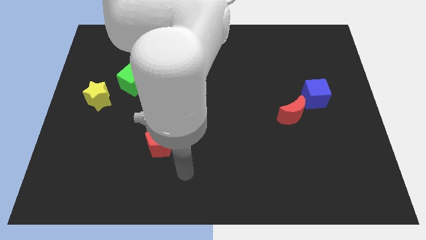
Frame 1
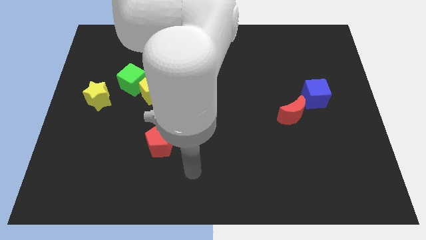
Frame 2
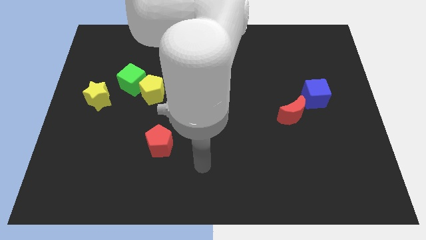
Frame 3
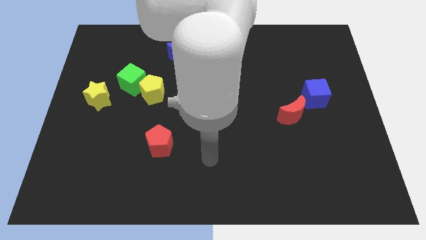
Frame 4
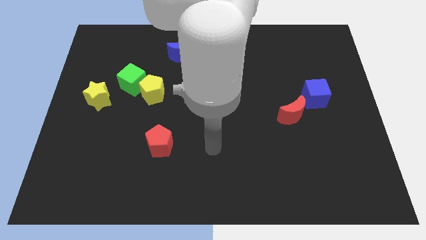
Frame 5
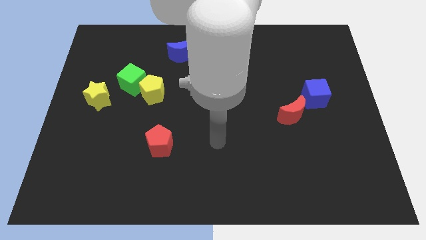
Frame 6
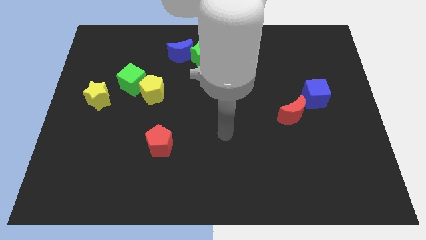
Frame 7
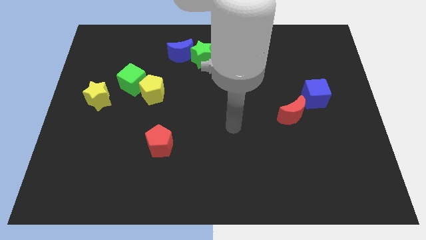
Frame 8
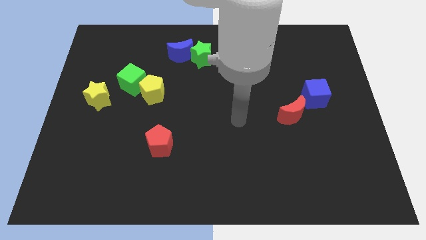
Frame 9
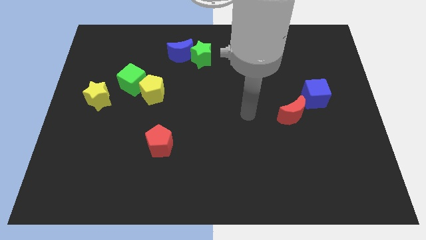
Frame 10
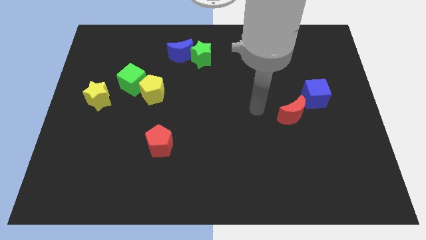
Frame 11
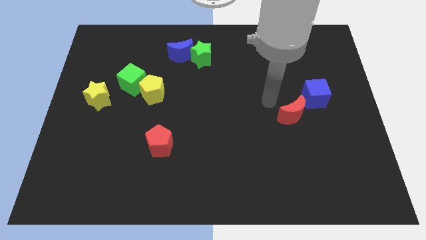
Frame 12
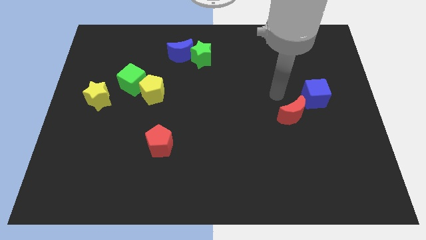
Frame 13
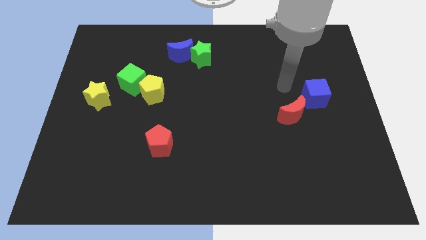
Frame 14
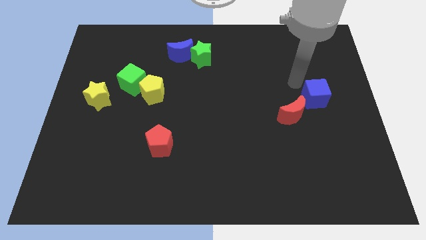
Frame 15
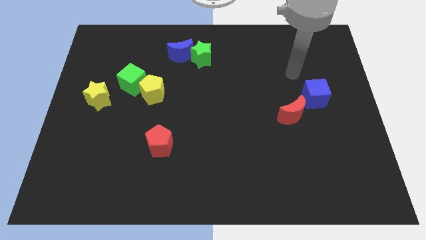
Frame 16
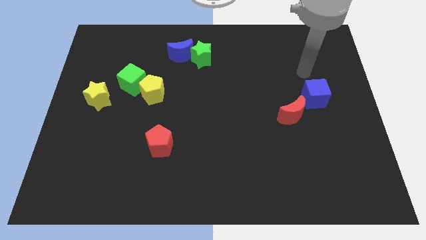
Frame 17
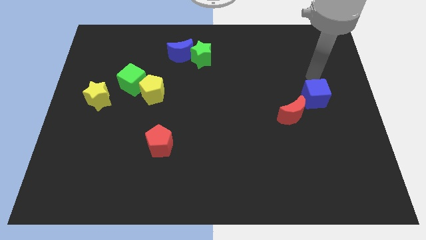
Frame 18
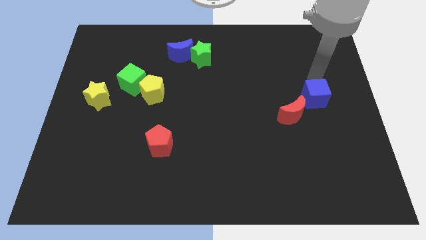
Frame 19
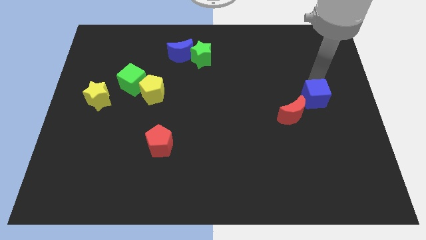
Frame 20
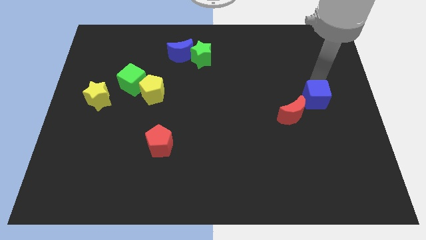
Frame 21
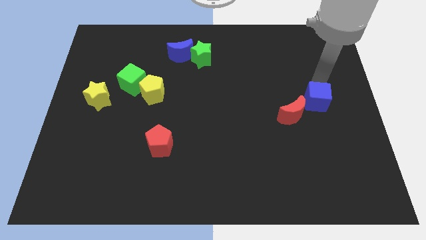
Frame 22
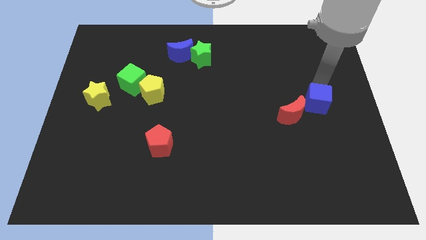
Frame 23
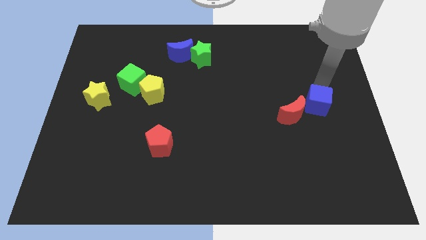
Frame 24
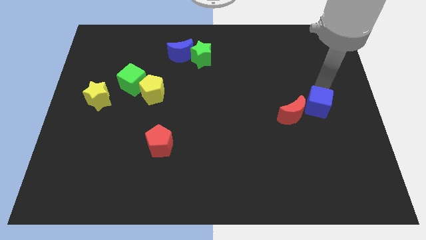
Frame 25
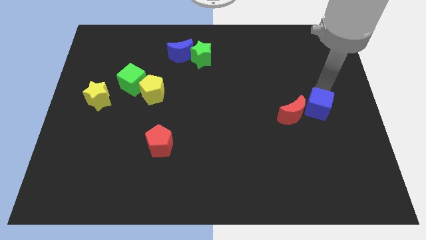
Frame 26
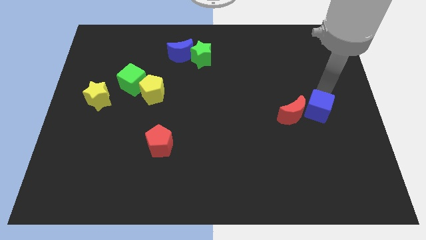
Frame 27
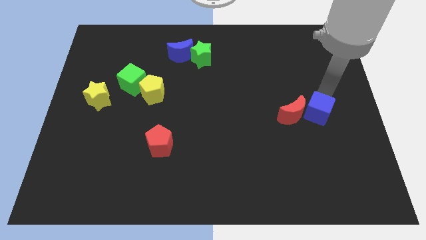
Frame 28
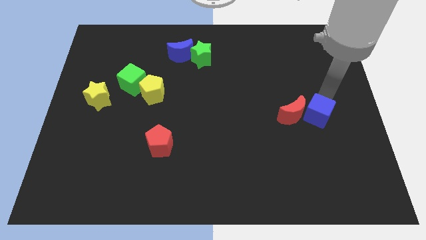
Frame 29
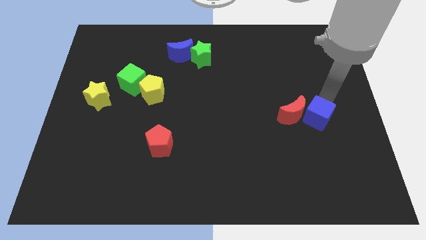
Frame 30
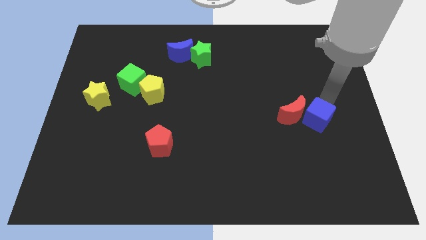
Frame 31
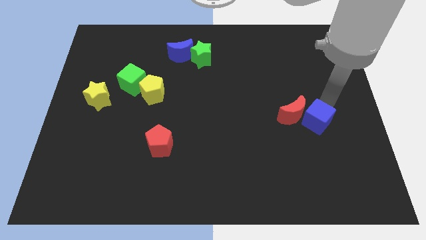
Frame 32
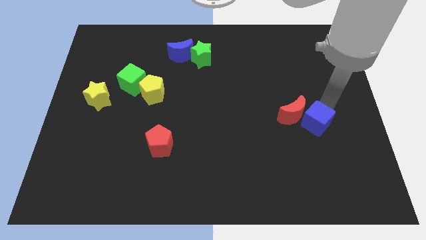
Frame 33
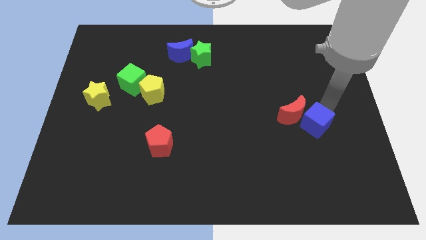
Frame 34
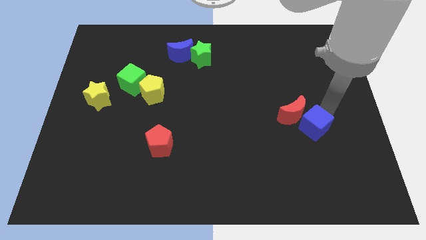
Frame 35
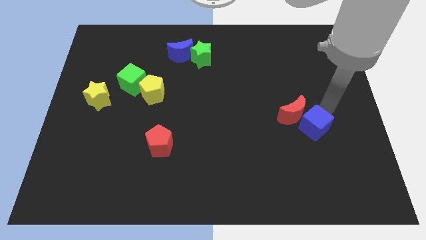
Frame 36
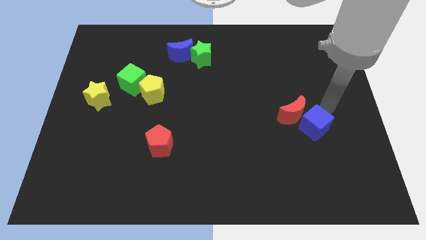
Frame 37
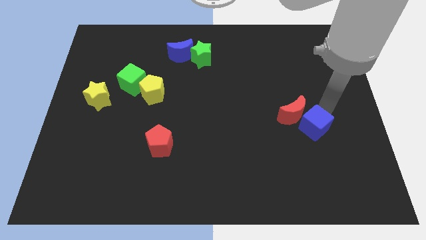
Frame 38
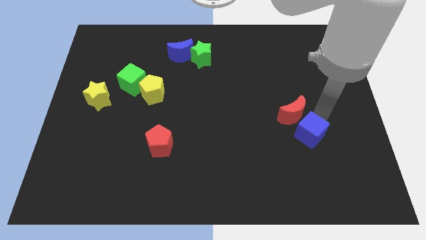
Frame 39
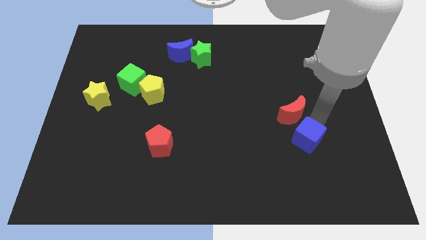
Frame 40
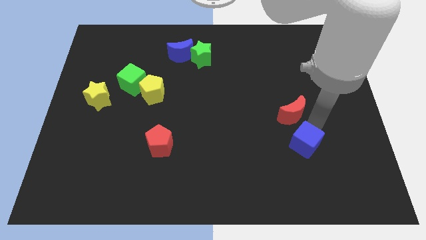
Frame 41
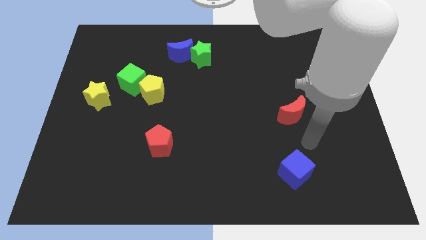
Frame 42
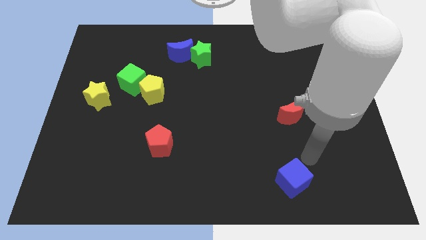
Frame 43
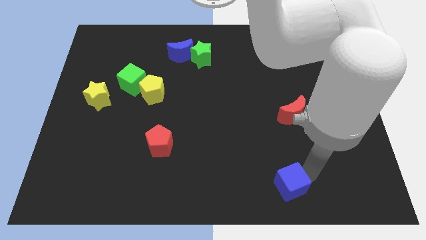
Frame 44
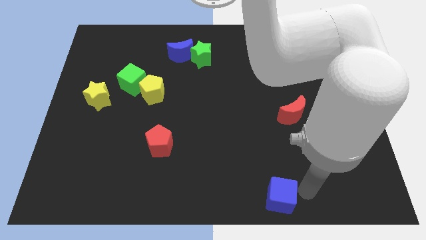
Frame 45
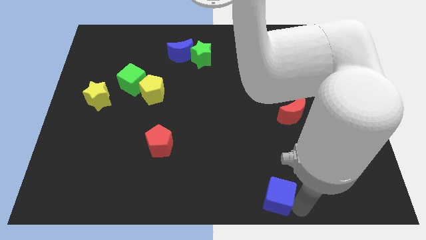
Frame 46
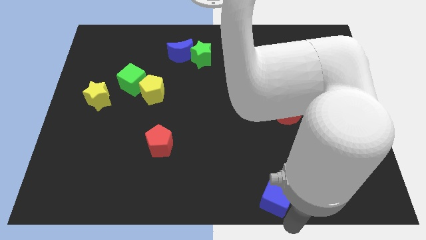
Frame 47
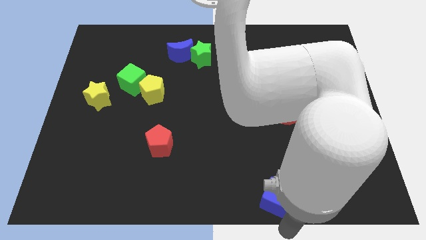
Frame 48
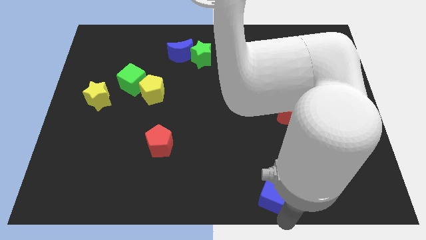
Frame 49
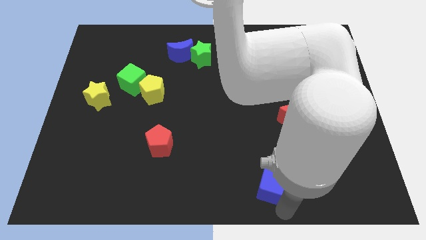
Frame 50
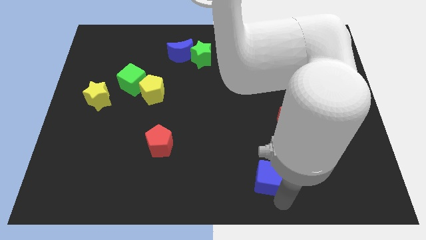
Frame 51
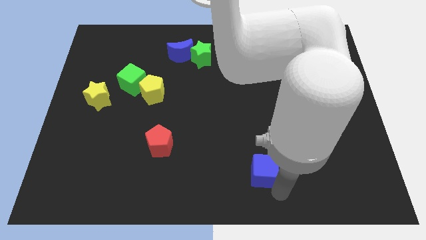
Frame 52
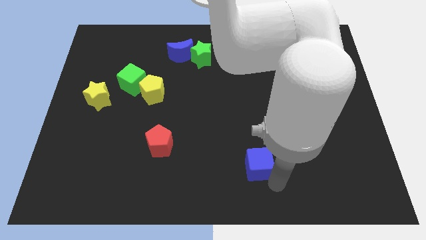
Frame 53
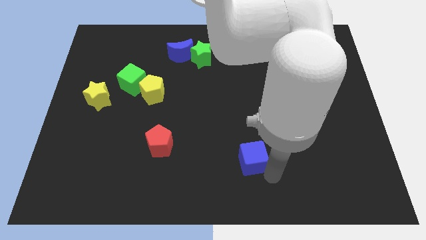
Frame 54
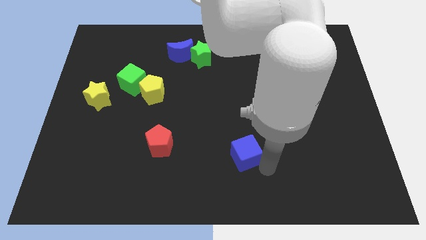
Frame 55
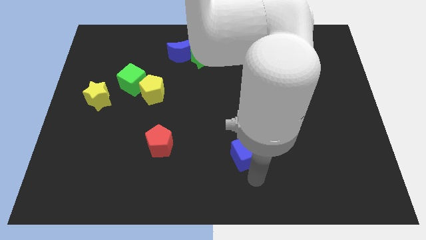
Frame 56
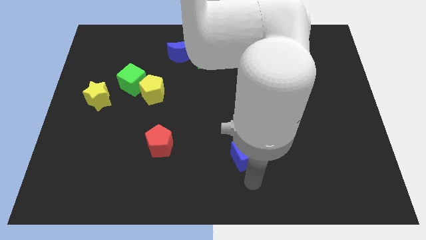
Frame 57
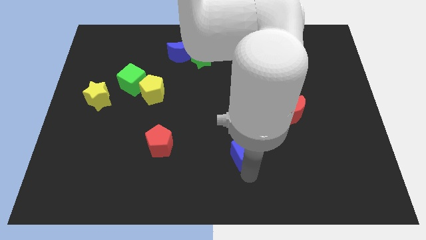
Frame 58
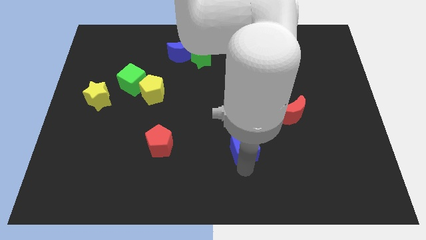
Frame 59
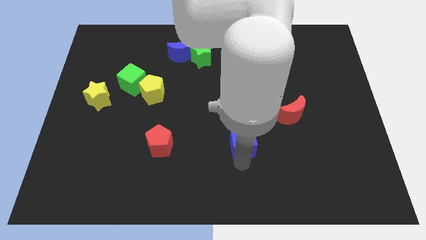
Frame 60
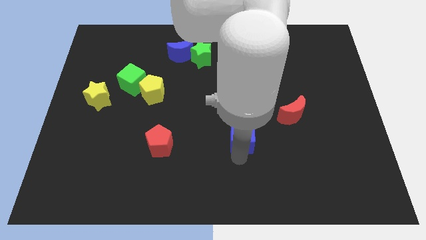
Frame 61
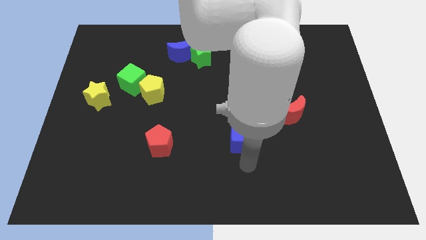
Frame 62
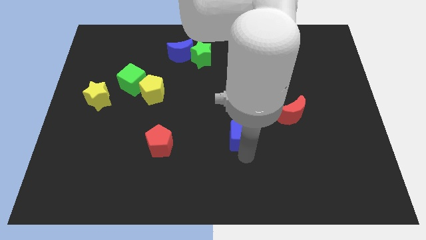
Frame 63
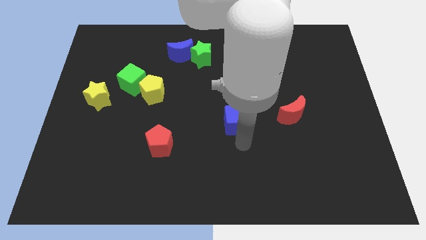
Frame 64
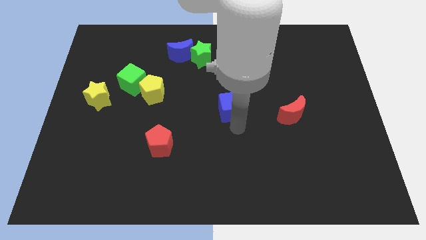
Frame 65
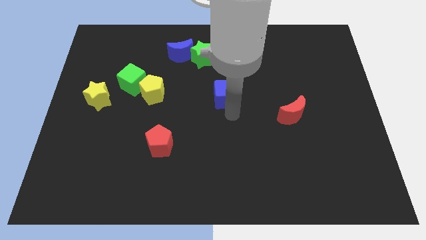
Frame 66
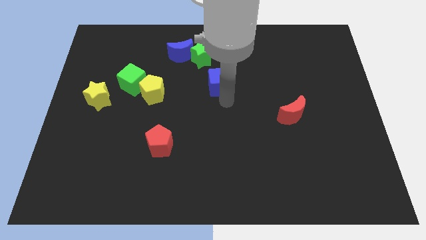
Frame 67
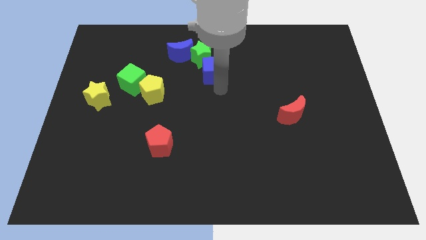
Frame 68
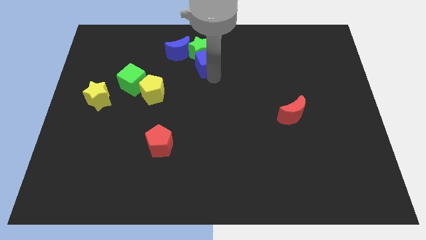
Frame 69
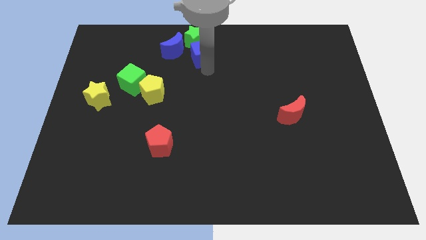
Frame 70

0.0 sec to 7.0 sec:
move the blue cube to the top side

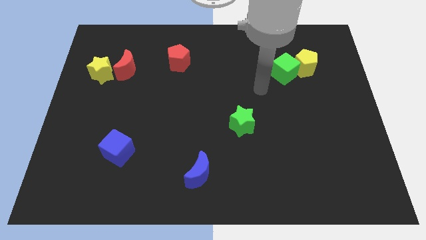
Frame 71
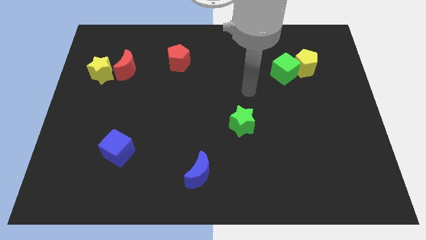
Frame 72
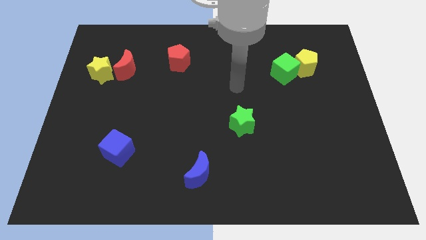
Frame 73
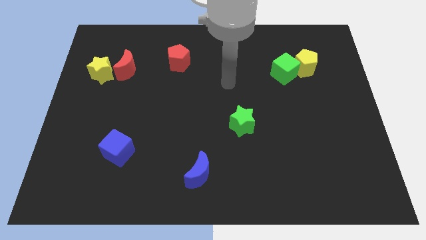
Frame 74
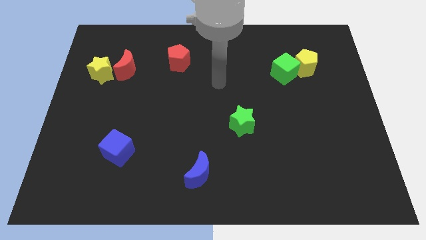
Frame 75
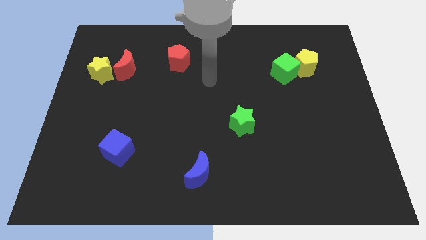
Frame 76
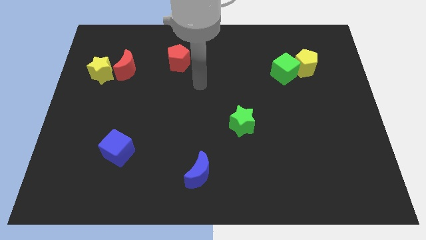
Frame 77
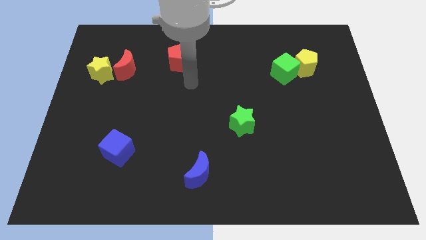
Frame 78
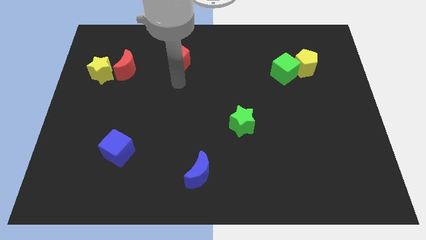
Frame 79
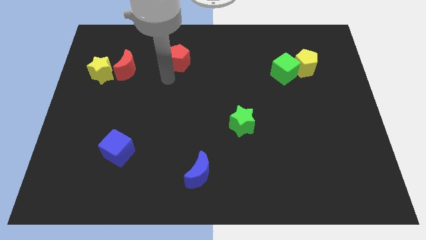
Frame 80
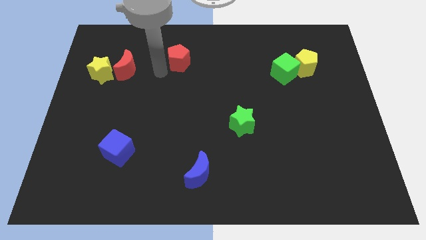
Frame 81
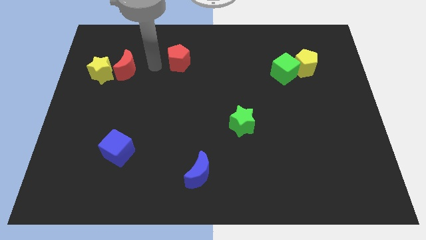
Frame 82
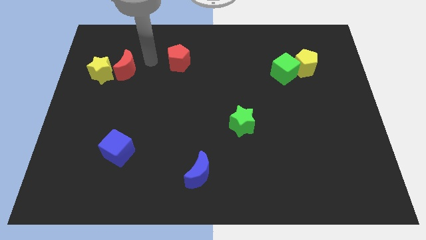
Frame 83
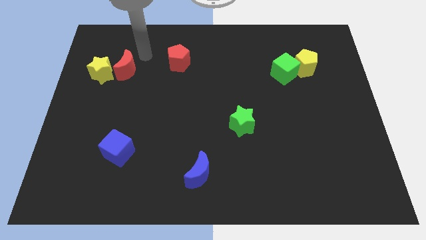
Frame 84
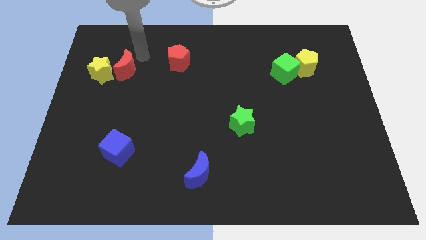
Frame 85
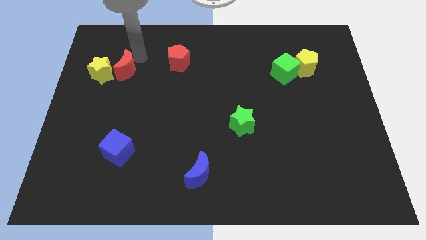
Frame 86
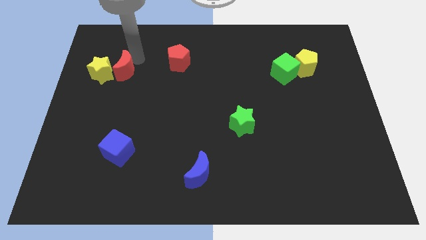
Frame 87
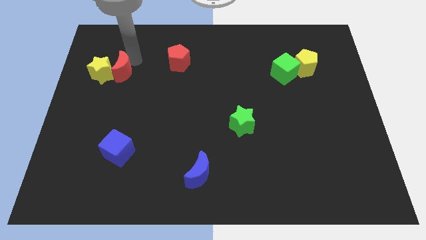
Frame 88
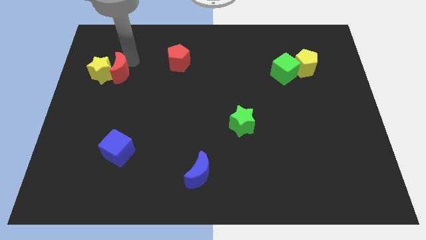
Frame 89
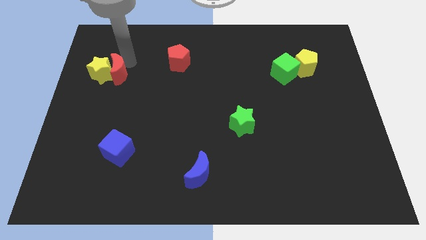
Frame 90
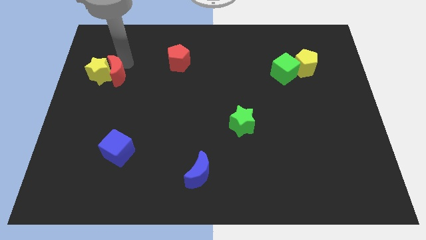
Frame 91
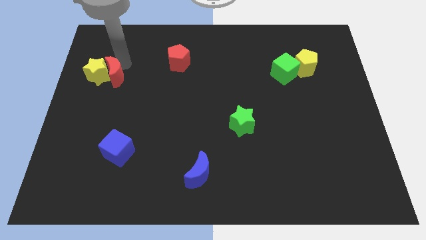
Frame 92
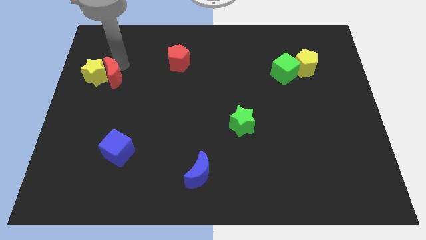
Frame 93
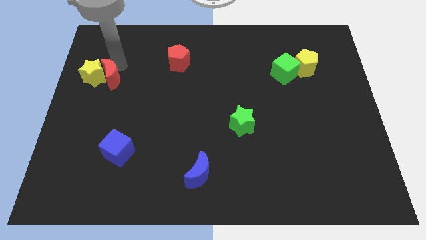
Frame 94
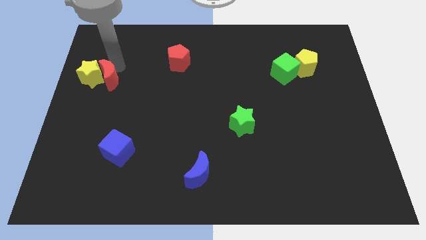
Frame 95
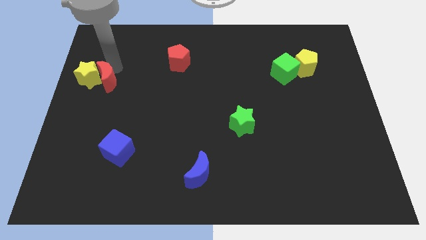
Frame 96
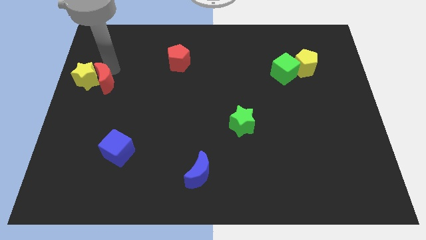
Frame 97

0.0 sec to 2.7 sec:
put the red moon to the left side
